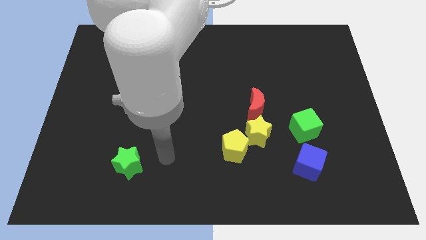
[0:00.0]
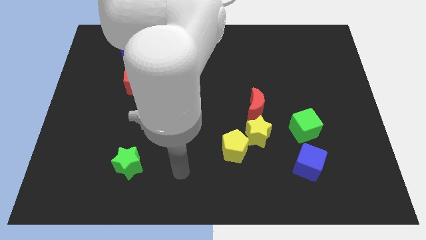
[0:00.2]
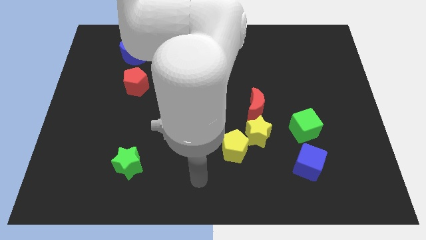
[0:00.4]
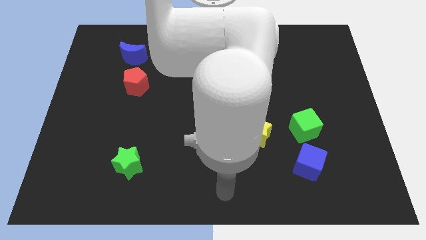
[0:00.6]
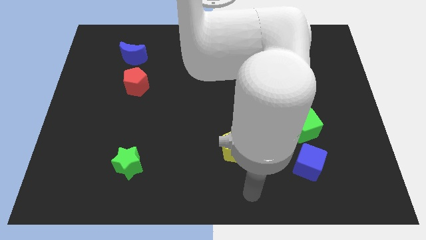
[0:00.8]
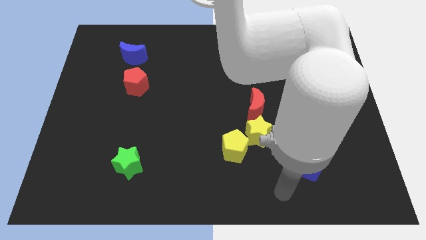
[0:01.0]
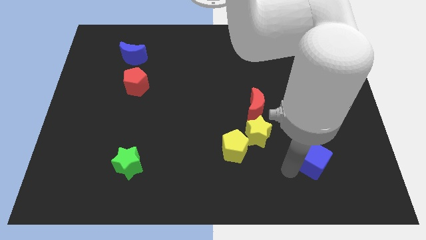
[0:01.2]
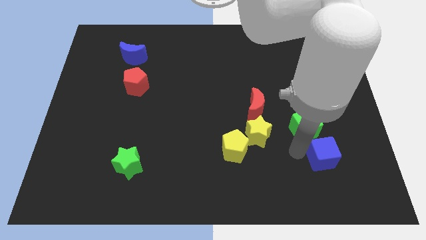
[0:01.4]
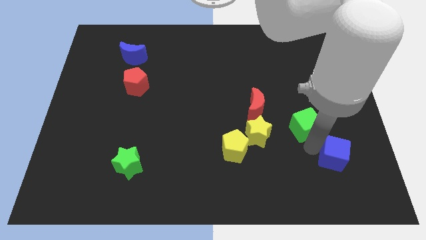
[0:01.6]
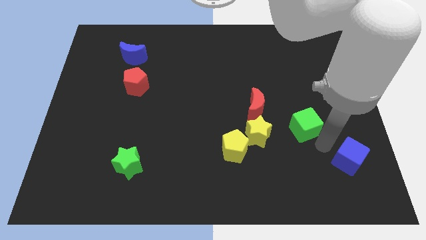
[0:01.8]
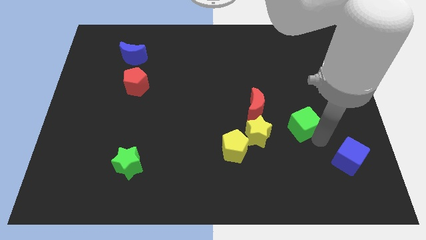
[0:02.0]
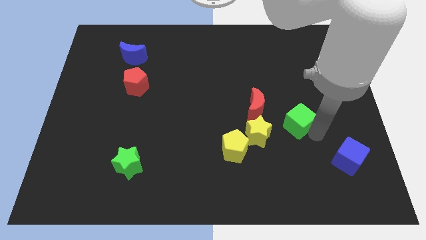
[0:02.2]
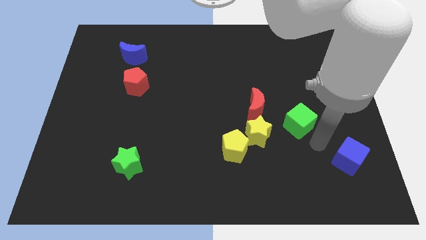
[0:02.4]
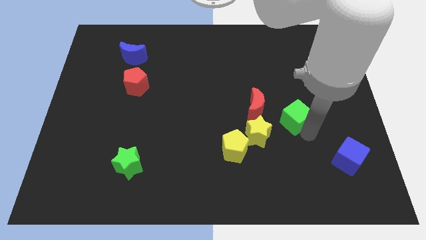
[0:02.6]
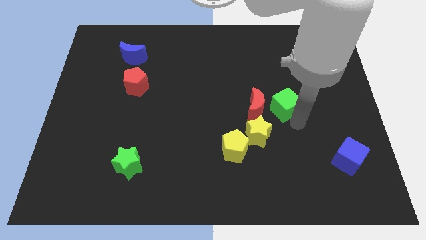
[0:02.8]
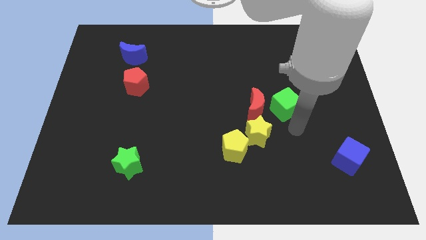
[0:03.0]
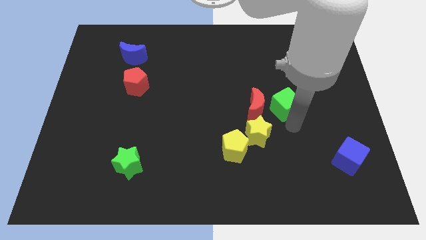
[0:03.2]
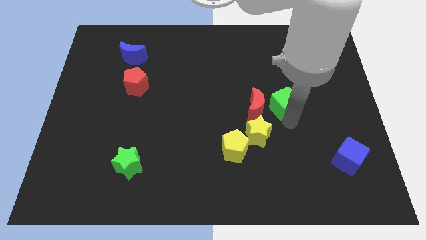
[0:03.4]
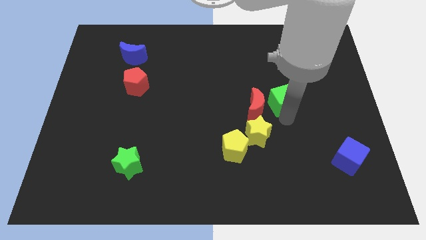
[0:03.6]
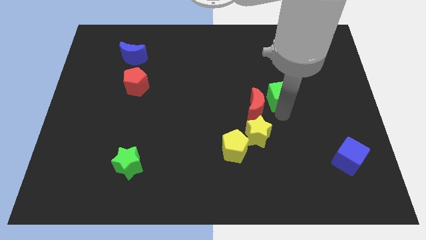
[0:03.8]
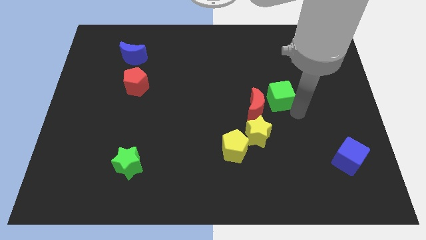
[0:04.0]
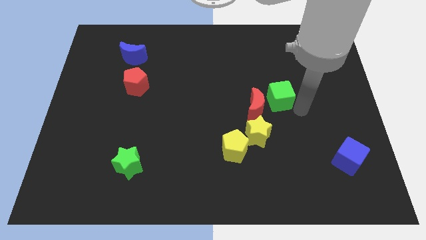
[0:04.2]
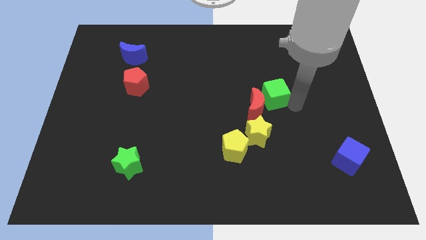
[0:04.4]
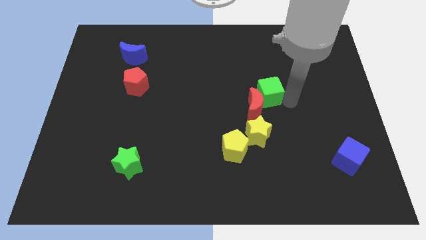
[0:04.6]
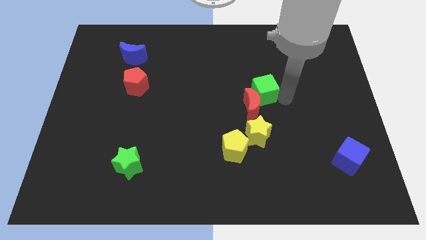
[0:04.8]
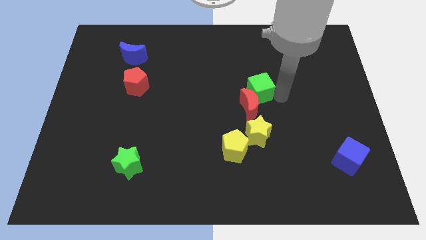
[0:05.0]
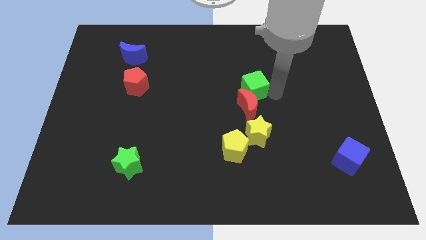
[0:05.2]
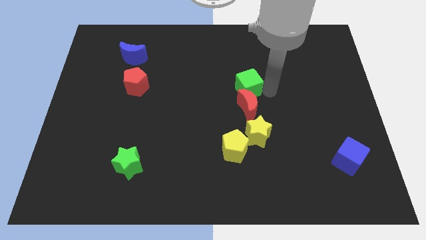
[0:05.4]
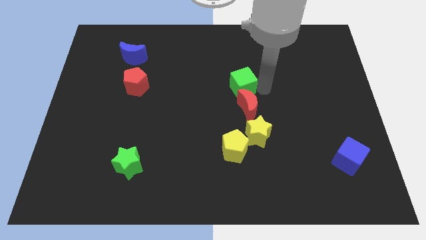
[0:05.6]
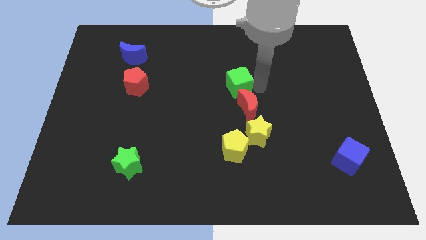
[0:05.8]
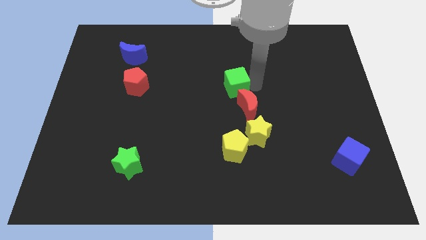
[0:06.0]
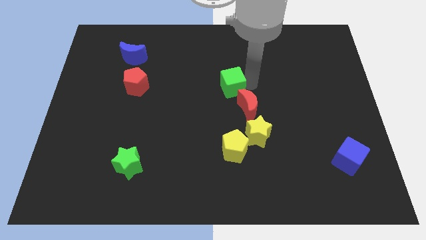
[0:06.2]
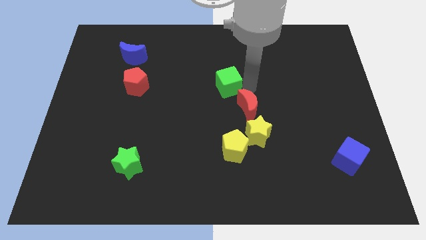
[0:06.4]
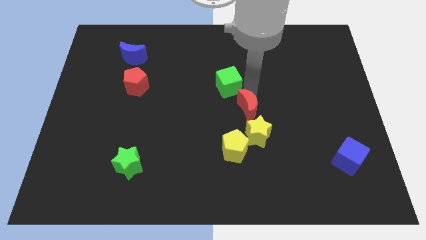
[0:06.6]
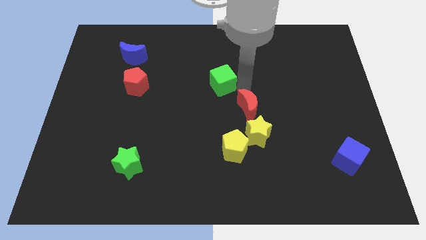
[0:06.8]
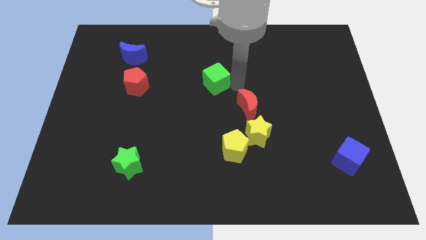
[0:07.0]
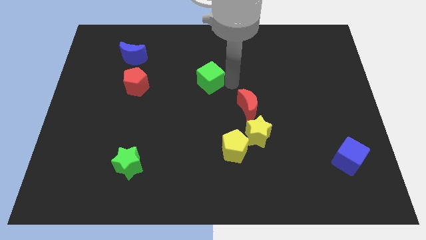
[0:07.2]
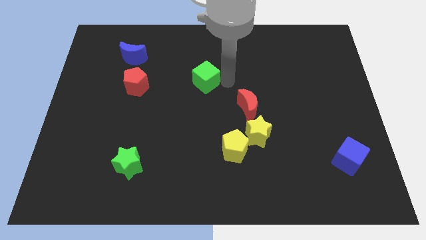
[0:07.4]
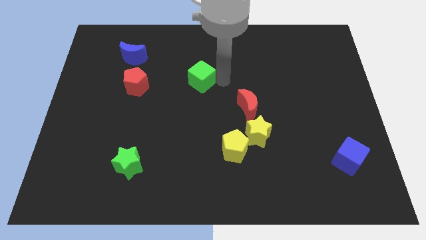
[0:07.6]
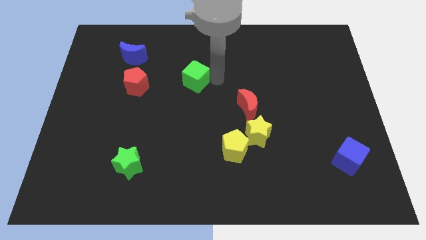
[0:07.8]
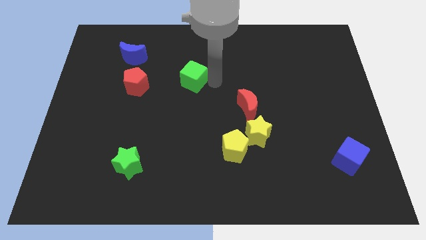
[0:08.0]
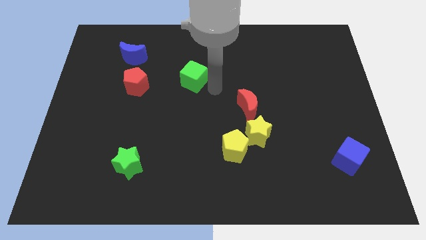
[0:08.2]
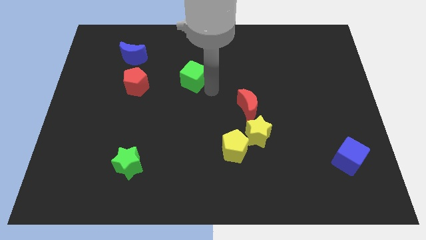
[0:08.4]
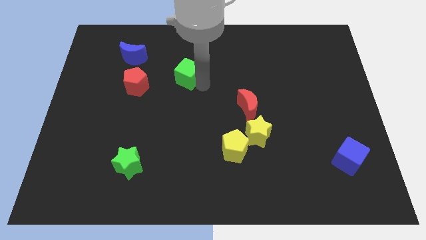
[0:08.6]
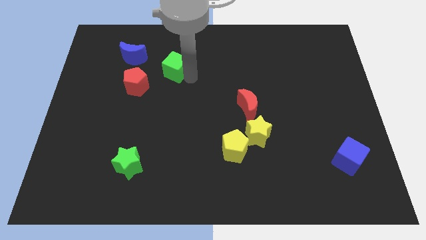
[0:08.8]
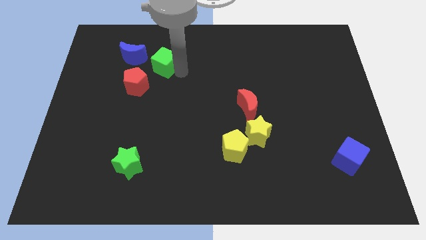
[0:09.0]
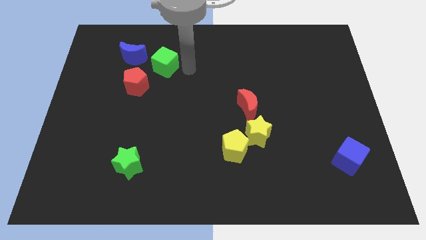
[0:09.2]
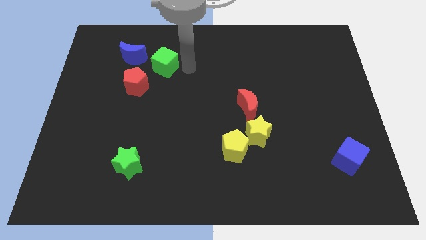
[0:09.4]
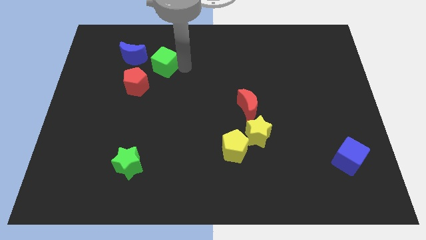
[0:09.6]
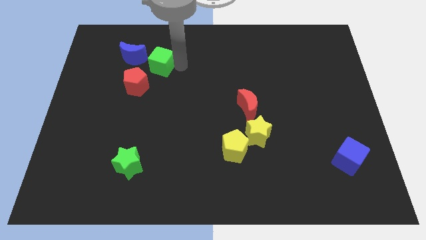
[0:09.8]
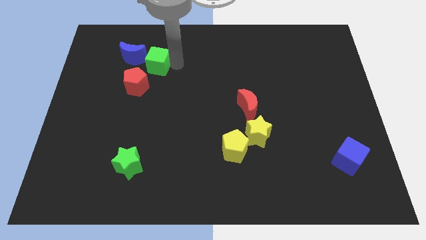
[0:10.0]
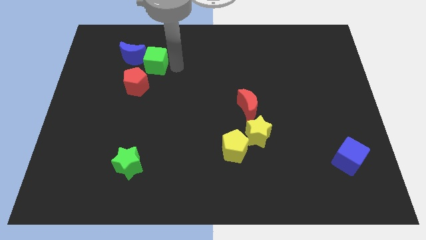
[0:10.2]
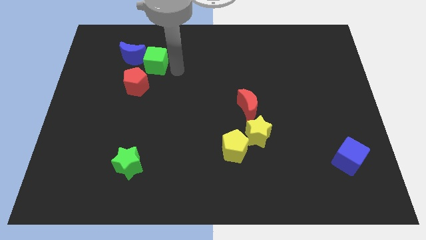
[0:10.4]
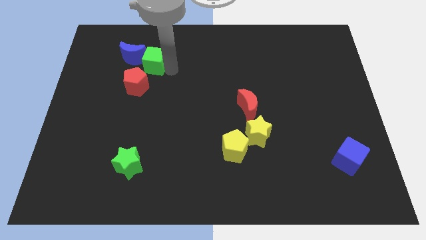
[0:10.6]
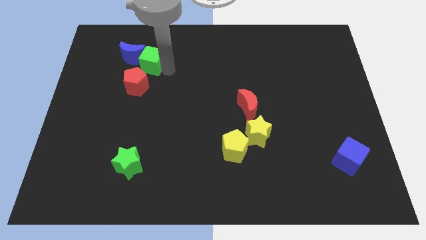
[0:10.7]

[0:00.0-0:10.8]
slide the green cube towards the blue moon

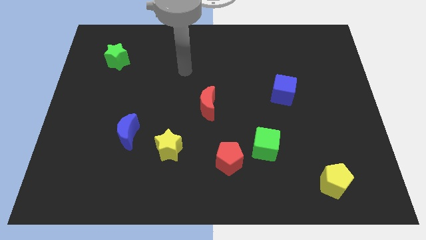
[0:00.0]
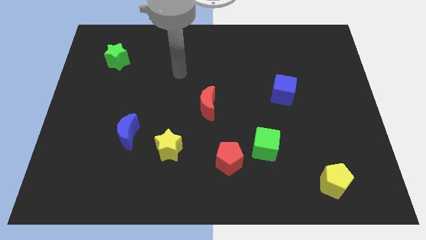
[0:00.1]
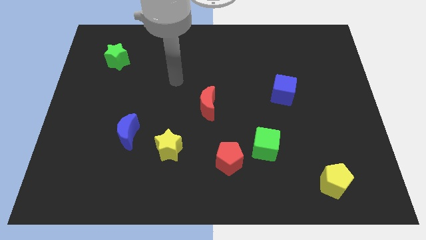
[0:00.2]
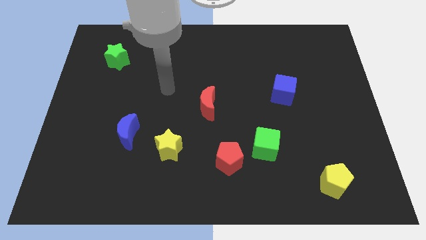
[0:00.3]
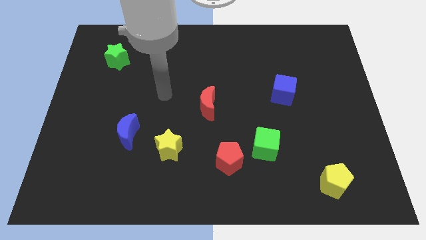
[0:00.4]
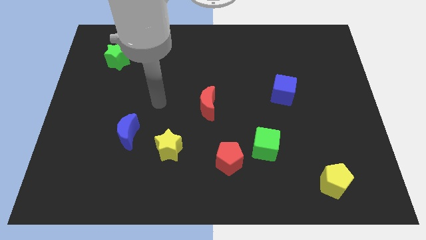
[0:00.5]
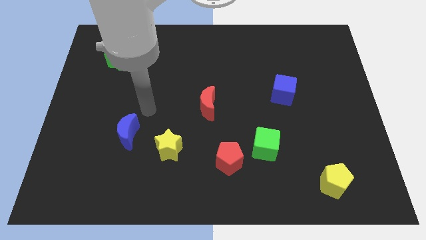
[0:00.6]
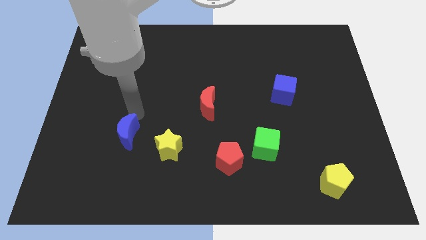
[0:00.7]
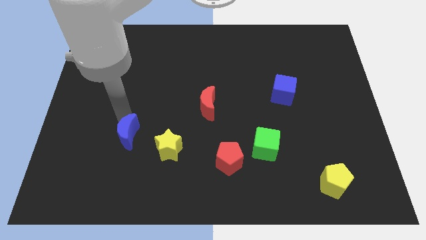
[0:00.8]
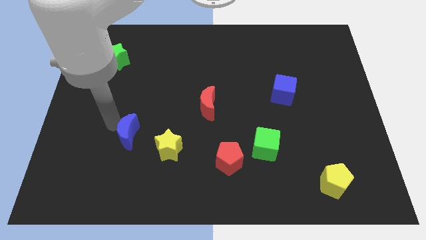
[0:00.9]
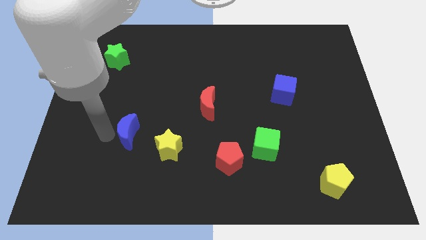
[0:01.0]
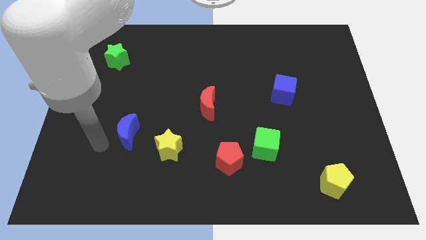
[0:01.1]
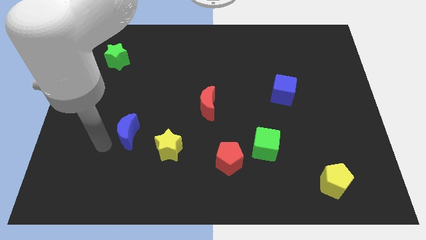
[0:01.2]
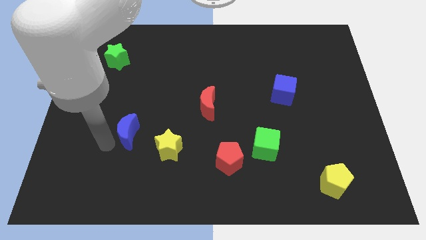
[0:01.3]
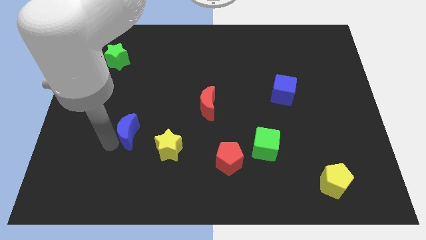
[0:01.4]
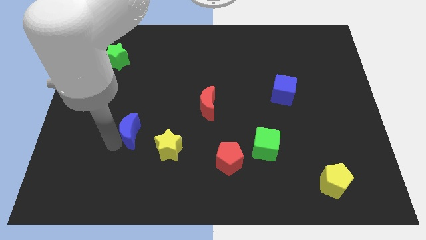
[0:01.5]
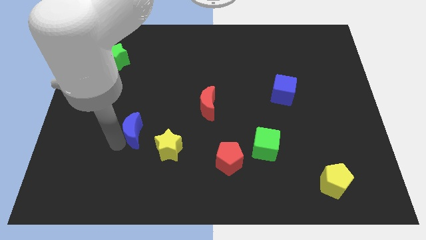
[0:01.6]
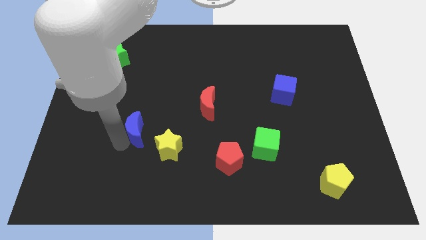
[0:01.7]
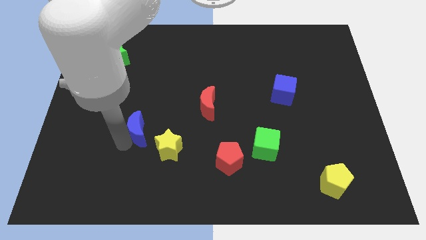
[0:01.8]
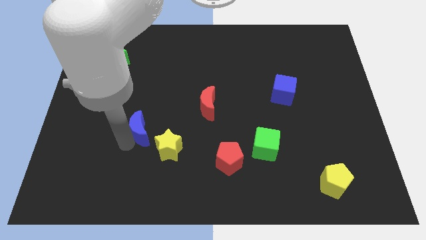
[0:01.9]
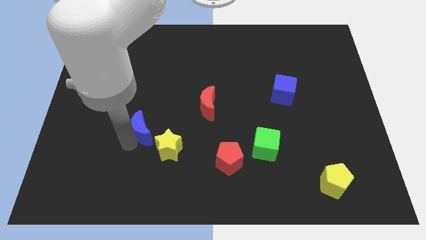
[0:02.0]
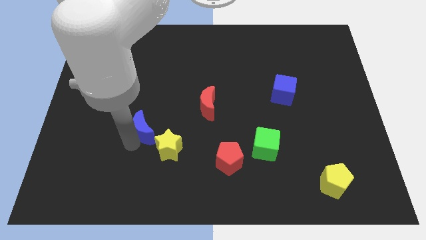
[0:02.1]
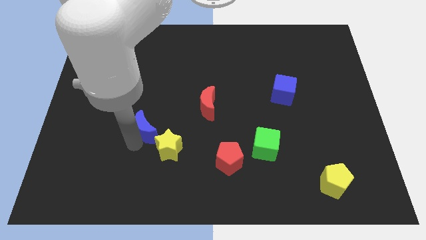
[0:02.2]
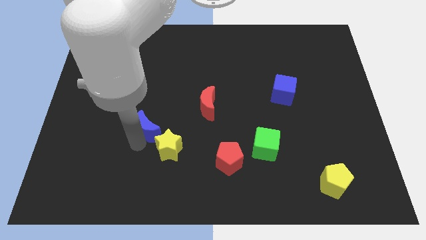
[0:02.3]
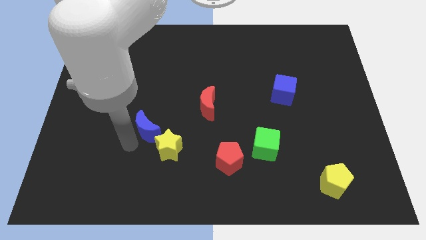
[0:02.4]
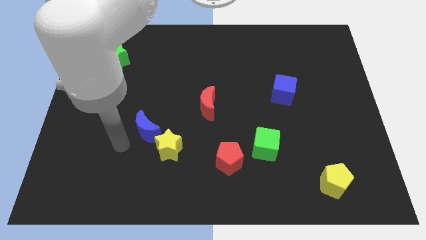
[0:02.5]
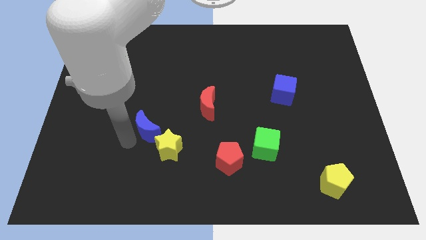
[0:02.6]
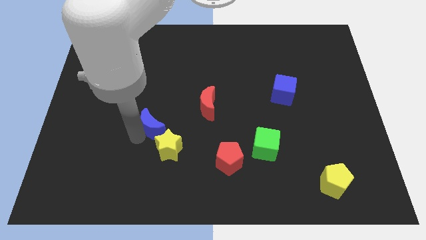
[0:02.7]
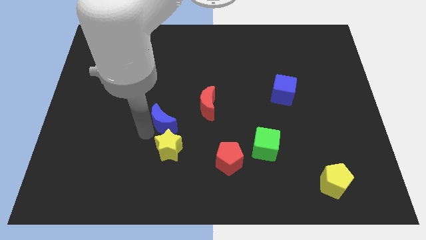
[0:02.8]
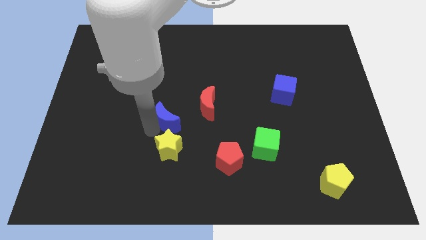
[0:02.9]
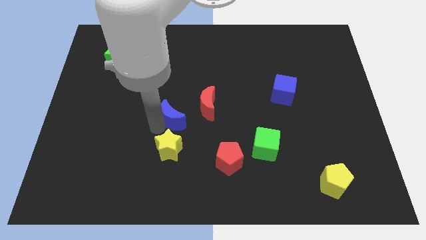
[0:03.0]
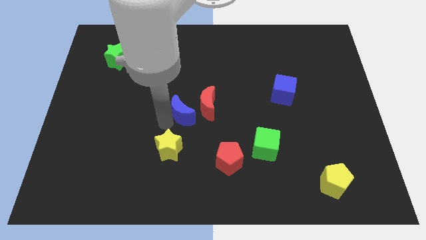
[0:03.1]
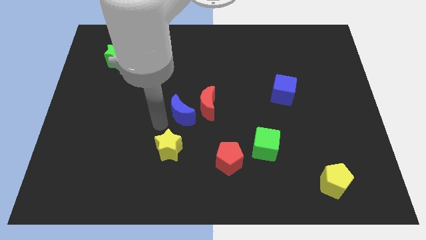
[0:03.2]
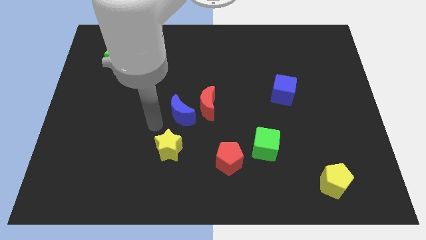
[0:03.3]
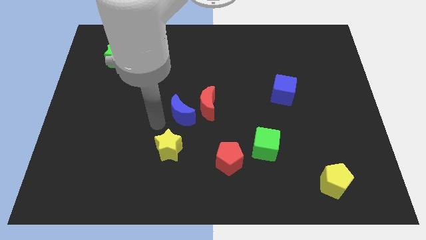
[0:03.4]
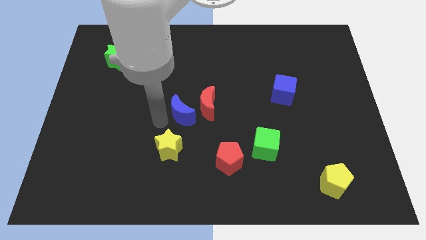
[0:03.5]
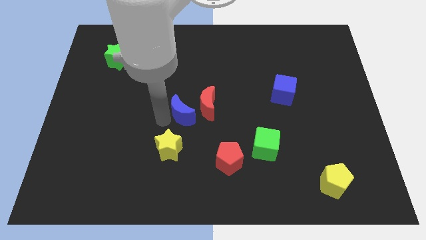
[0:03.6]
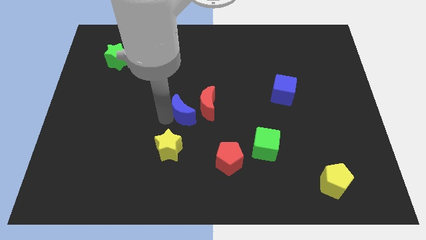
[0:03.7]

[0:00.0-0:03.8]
put the blue moon to the red moon
